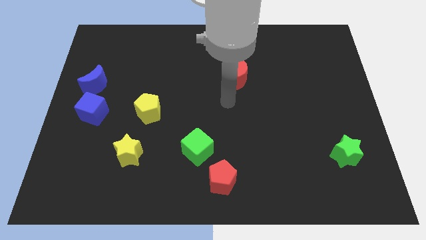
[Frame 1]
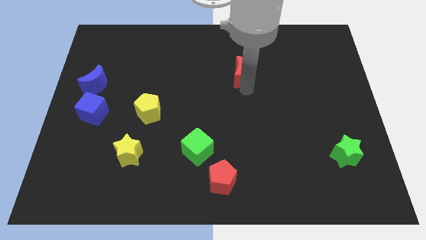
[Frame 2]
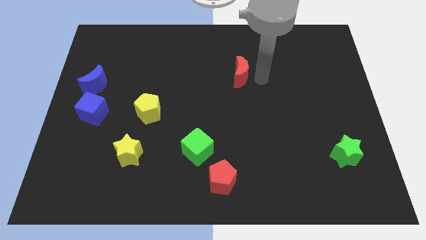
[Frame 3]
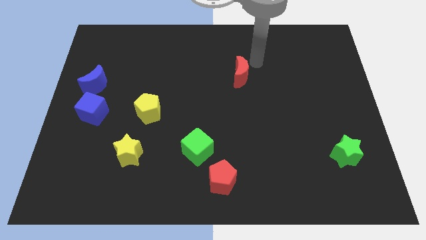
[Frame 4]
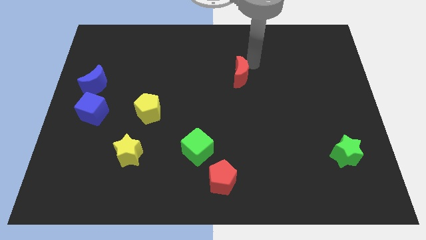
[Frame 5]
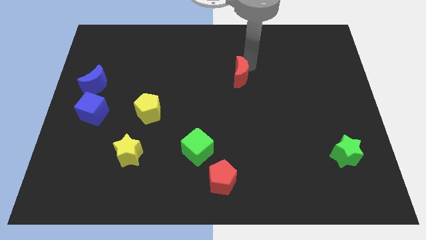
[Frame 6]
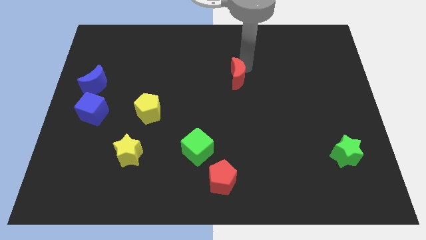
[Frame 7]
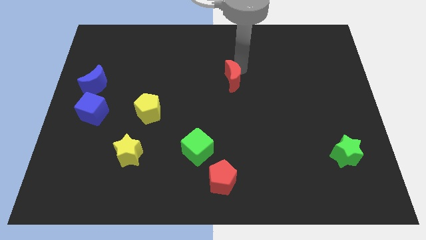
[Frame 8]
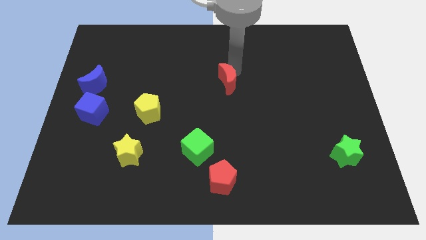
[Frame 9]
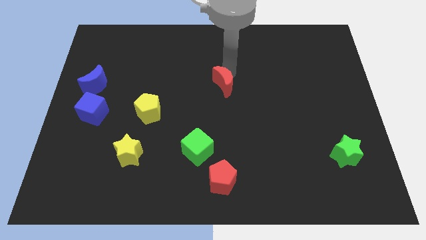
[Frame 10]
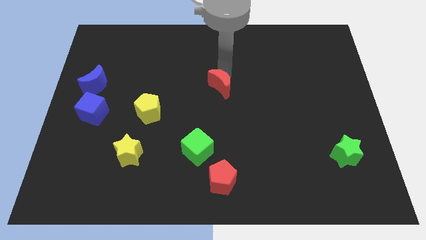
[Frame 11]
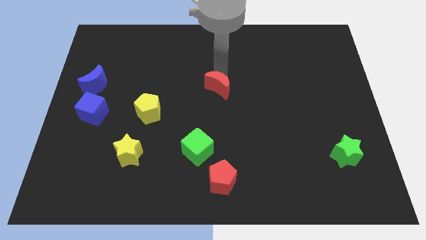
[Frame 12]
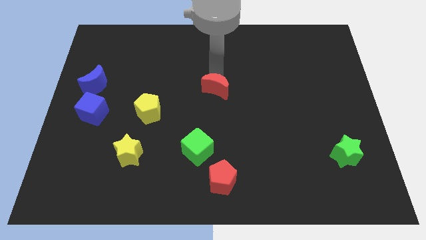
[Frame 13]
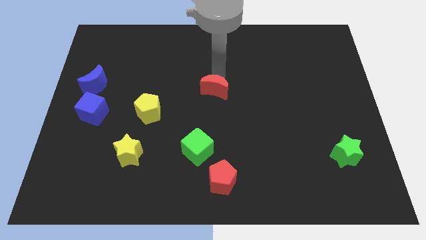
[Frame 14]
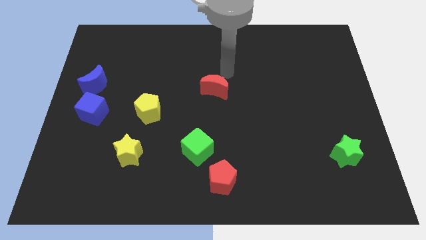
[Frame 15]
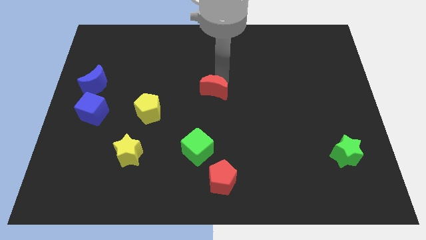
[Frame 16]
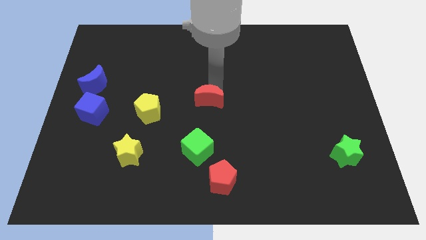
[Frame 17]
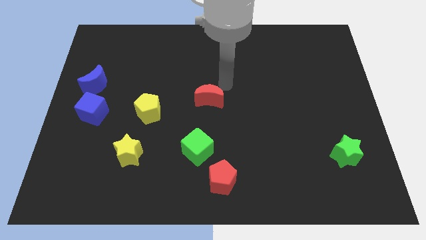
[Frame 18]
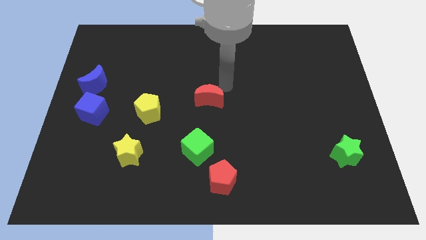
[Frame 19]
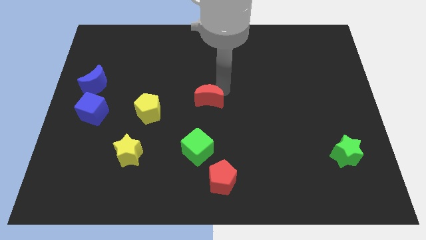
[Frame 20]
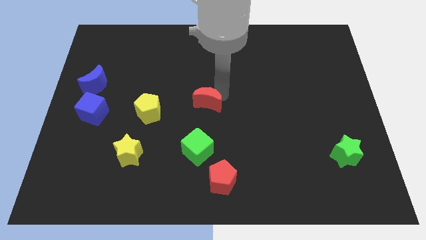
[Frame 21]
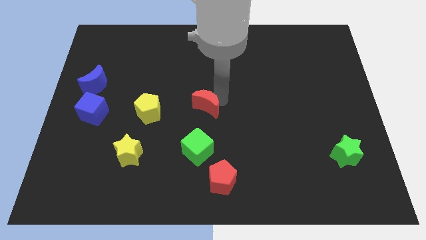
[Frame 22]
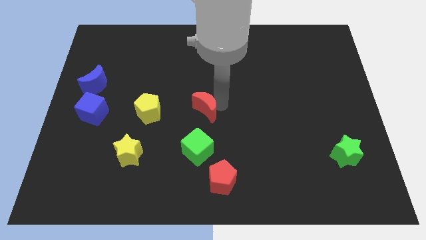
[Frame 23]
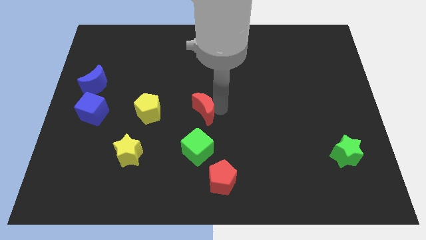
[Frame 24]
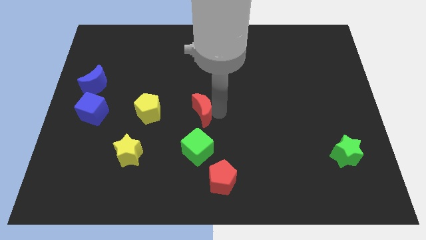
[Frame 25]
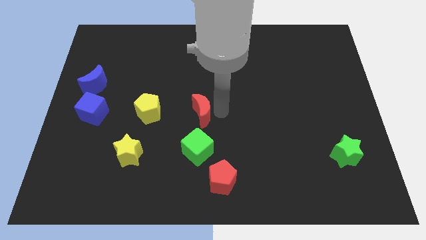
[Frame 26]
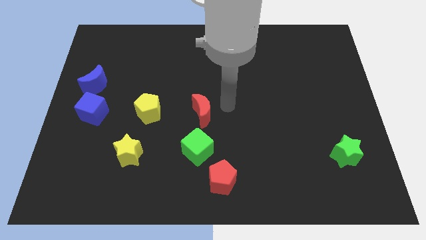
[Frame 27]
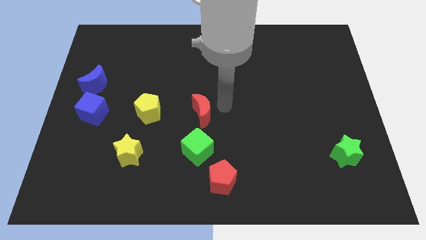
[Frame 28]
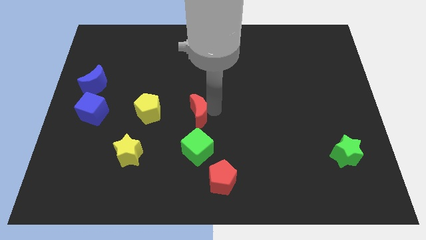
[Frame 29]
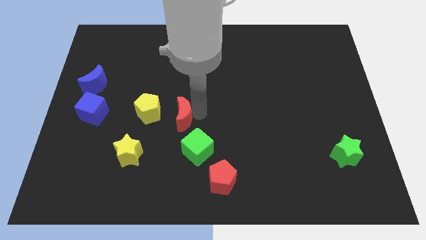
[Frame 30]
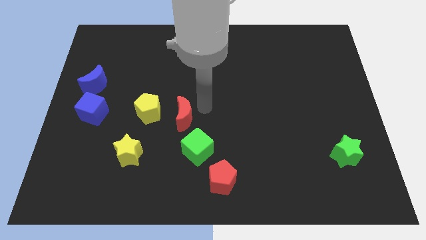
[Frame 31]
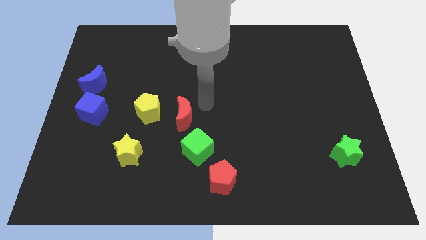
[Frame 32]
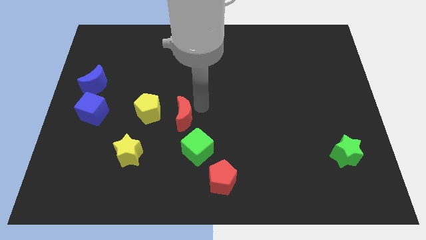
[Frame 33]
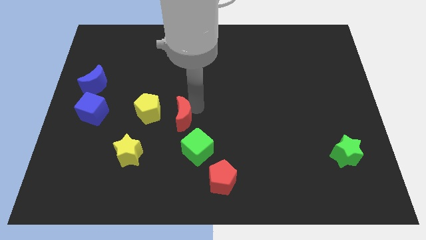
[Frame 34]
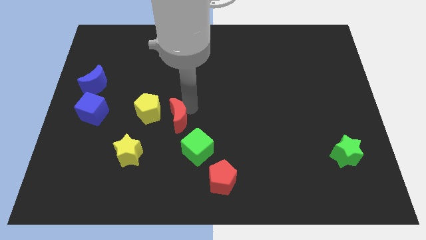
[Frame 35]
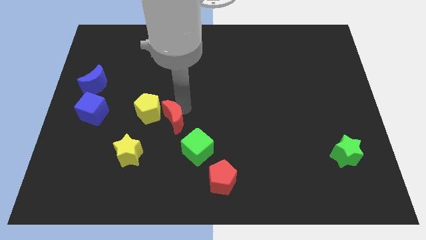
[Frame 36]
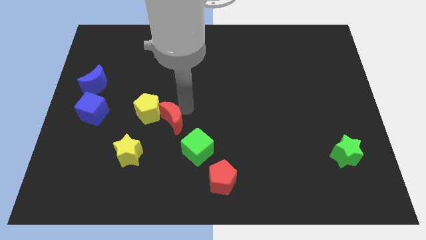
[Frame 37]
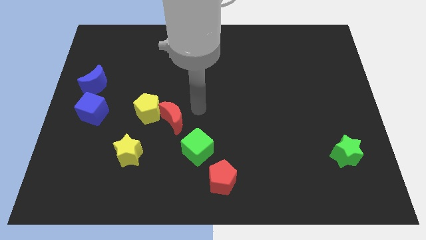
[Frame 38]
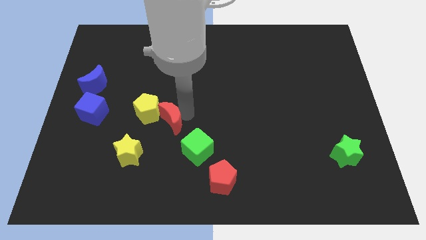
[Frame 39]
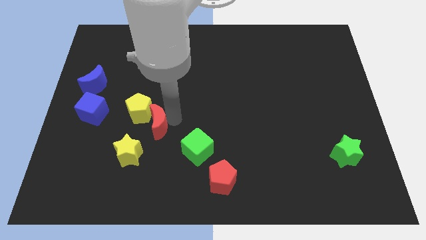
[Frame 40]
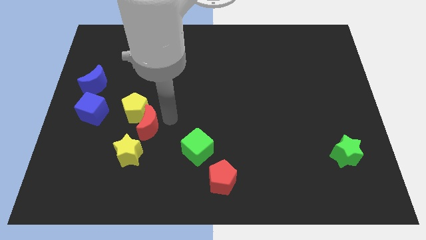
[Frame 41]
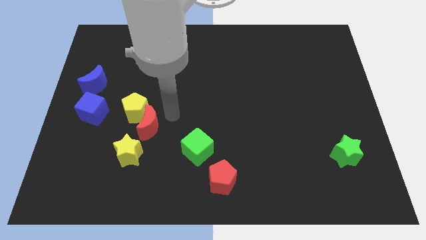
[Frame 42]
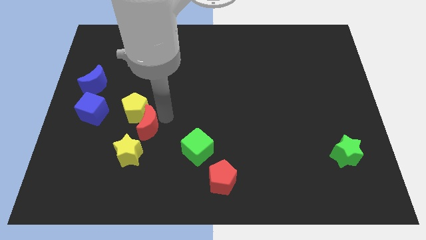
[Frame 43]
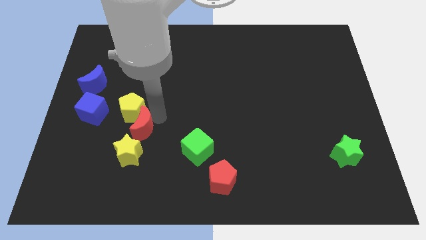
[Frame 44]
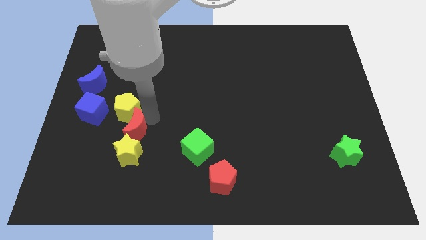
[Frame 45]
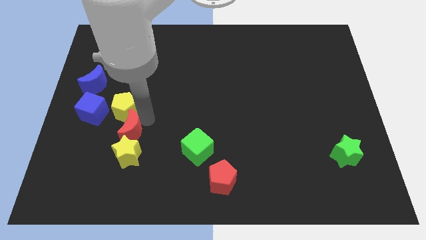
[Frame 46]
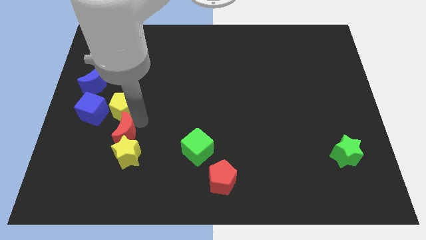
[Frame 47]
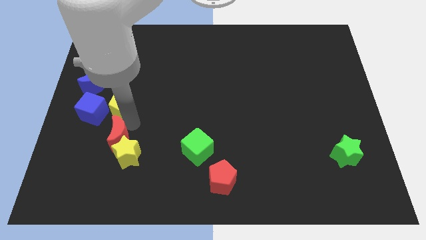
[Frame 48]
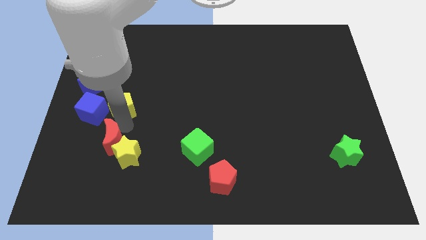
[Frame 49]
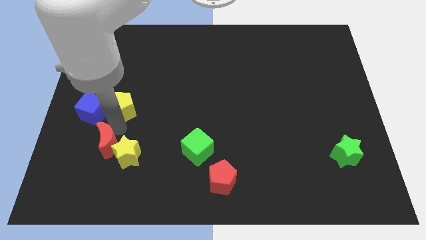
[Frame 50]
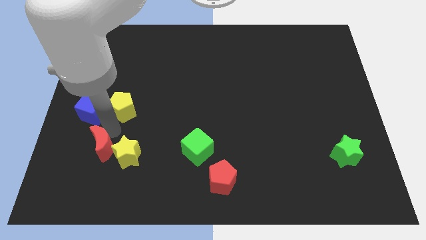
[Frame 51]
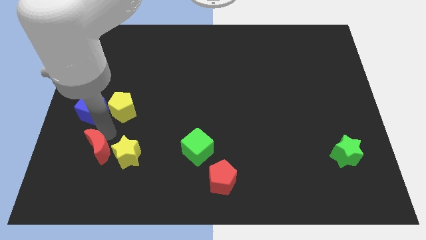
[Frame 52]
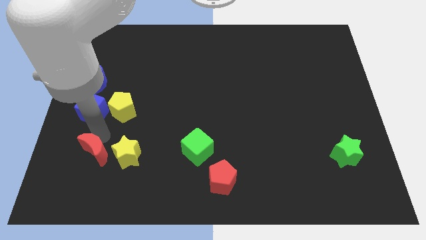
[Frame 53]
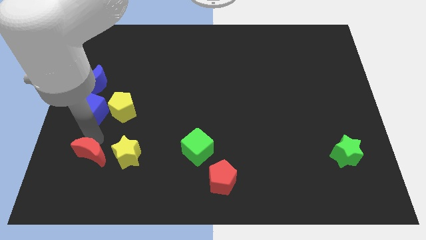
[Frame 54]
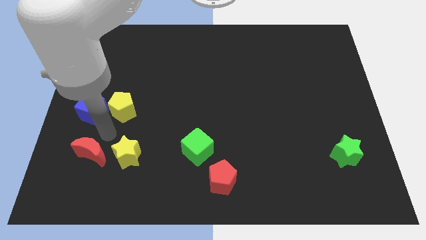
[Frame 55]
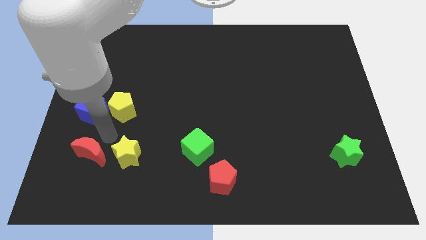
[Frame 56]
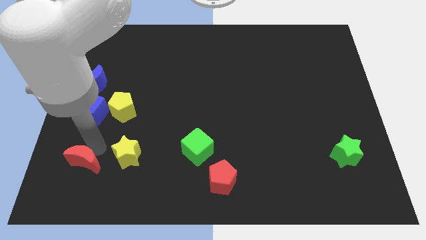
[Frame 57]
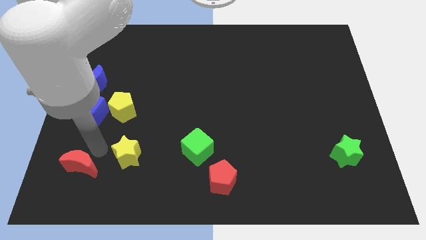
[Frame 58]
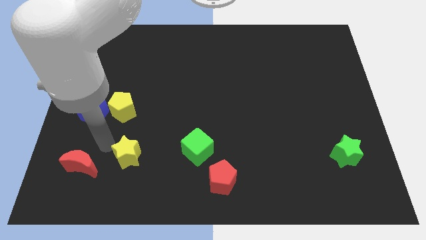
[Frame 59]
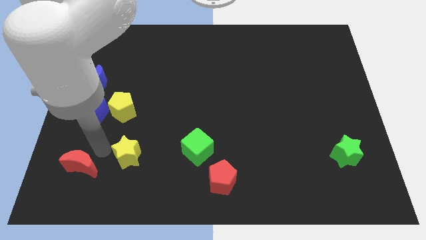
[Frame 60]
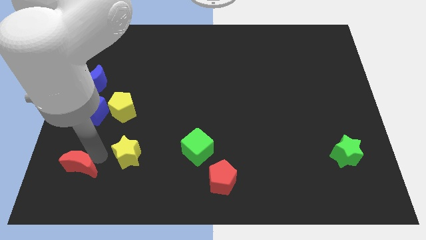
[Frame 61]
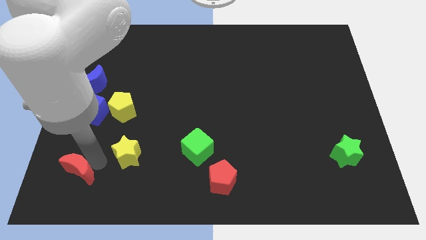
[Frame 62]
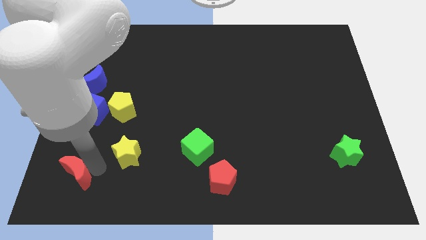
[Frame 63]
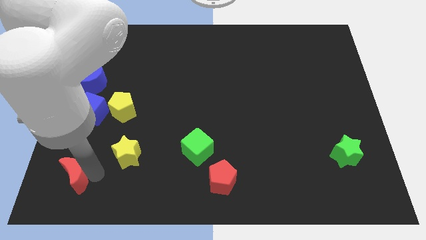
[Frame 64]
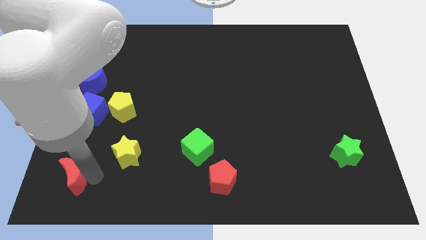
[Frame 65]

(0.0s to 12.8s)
push the red moon to the bottom left
